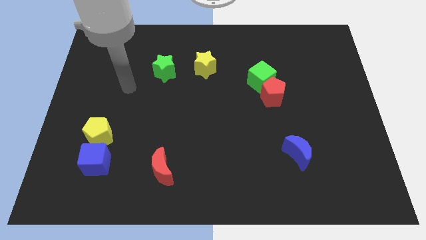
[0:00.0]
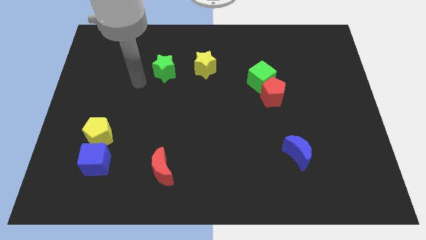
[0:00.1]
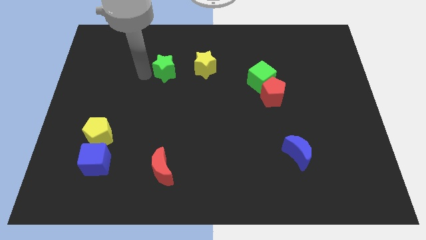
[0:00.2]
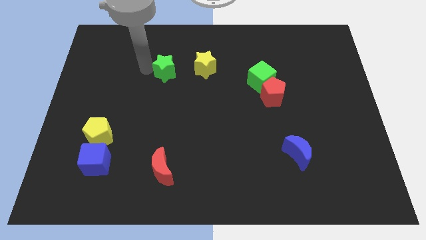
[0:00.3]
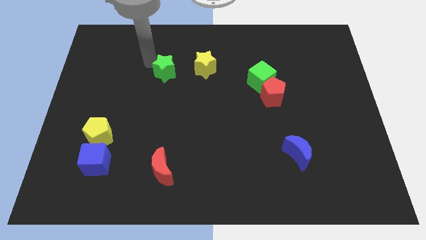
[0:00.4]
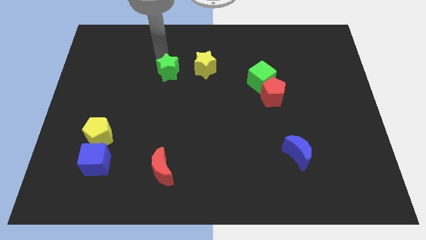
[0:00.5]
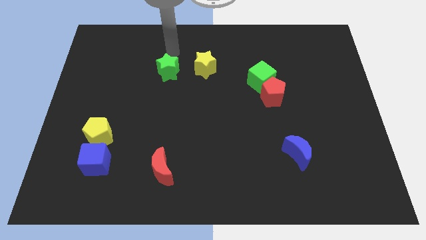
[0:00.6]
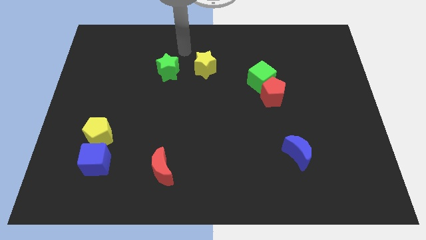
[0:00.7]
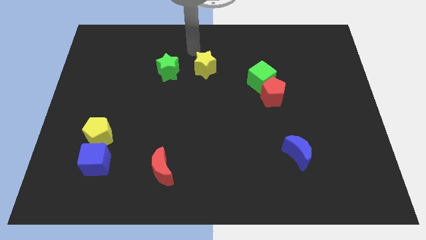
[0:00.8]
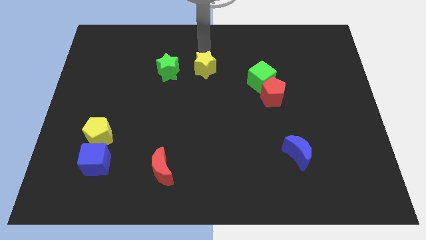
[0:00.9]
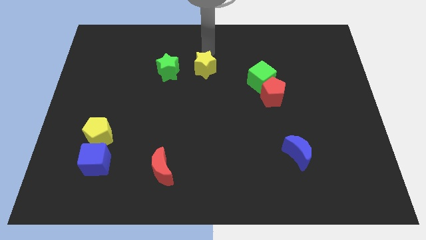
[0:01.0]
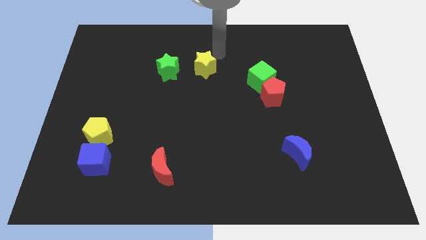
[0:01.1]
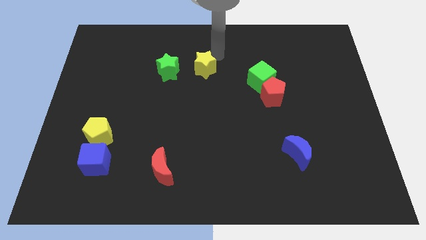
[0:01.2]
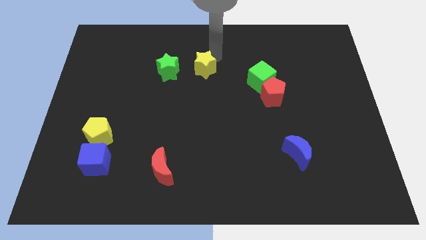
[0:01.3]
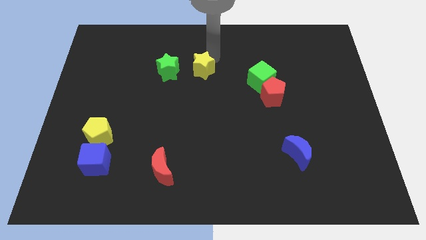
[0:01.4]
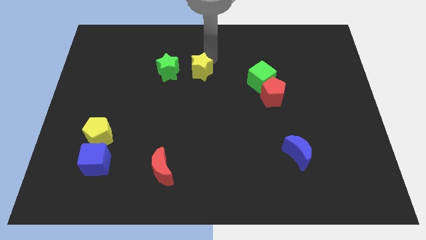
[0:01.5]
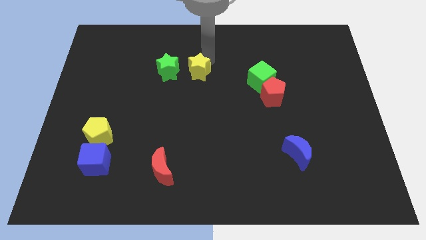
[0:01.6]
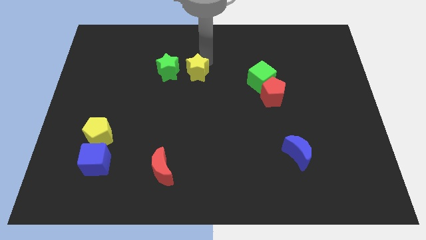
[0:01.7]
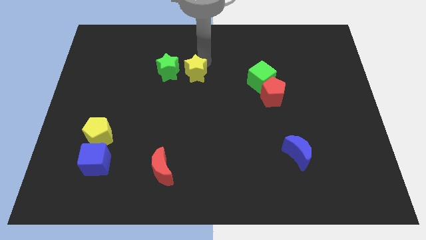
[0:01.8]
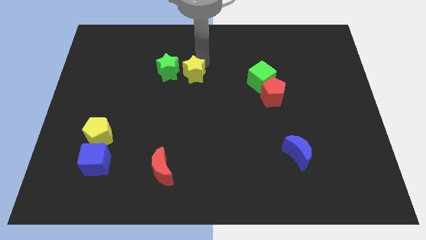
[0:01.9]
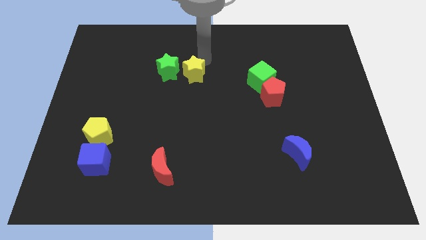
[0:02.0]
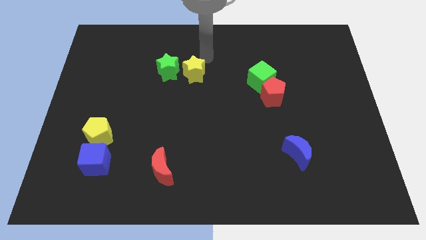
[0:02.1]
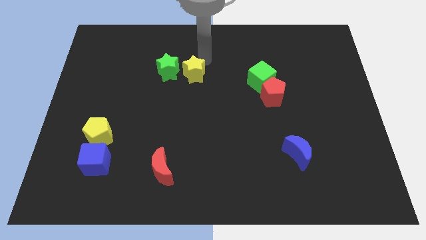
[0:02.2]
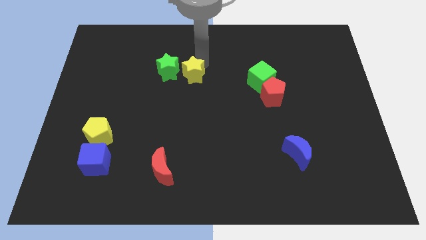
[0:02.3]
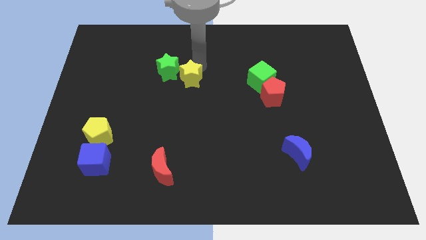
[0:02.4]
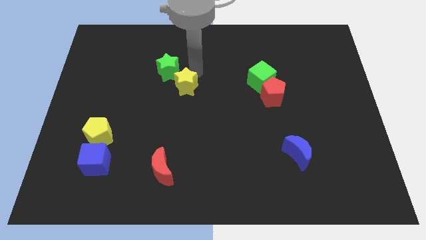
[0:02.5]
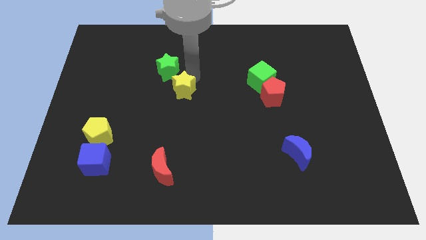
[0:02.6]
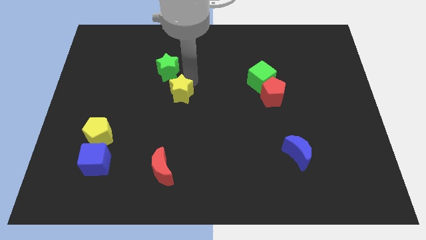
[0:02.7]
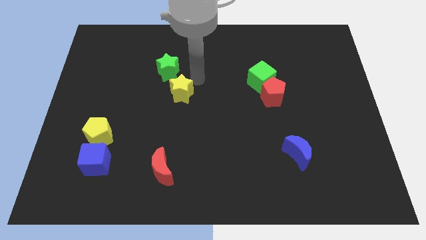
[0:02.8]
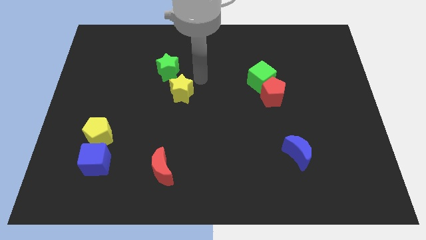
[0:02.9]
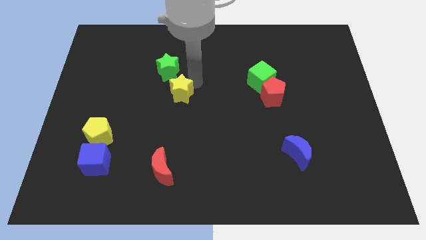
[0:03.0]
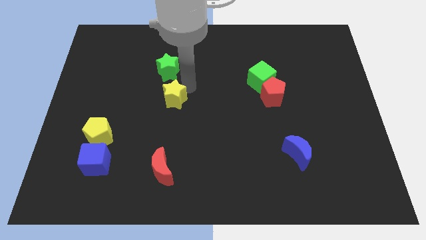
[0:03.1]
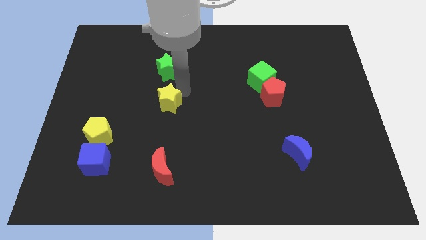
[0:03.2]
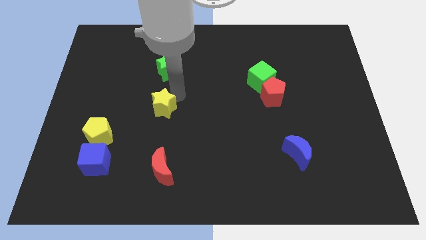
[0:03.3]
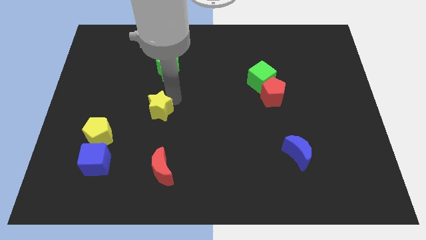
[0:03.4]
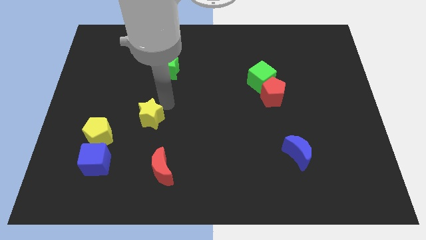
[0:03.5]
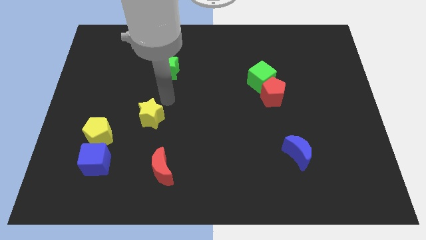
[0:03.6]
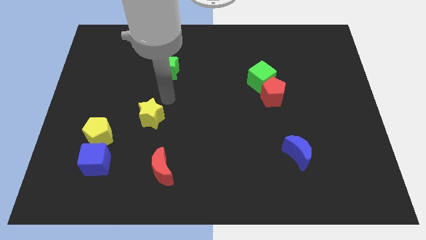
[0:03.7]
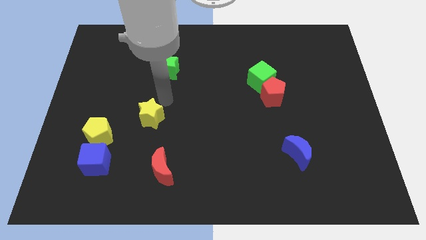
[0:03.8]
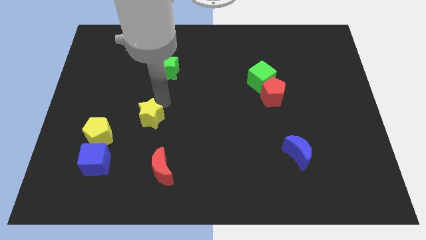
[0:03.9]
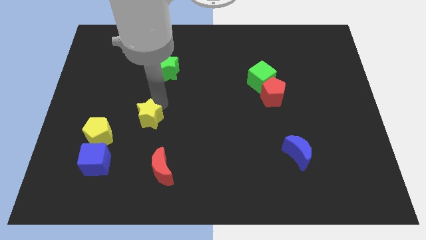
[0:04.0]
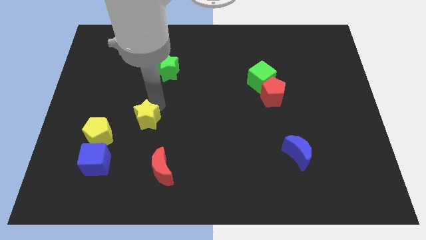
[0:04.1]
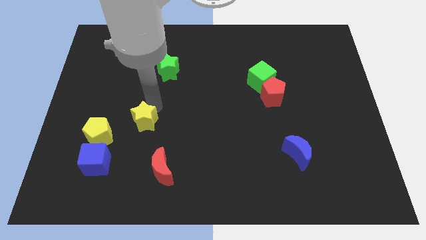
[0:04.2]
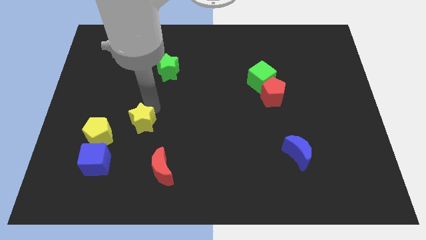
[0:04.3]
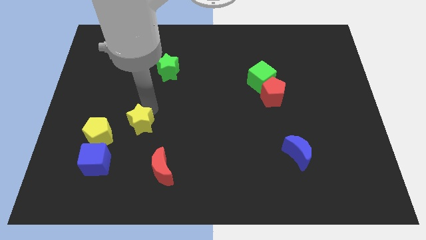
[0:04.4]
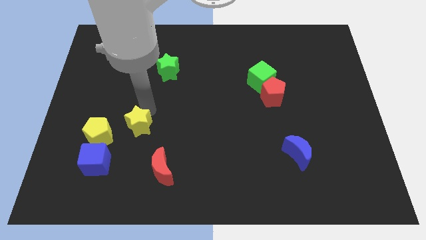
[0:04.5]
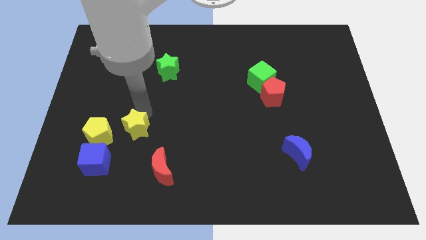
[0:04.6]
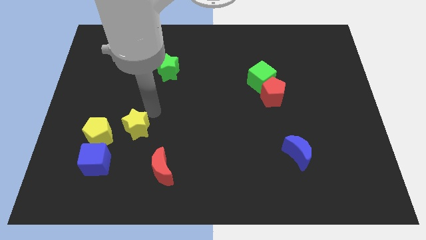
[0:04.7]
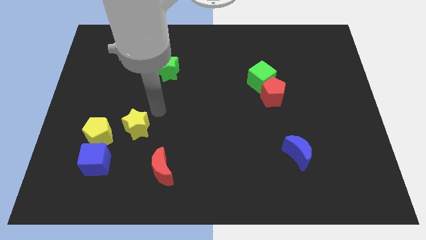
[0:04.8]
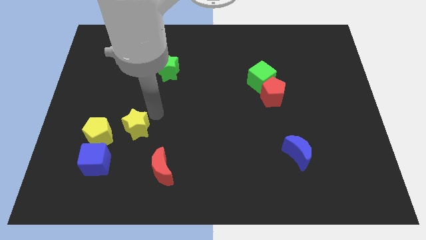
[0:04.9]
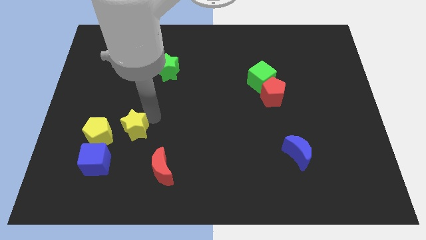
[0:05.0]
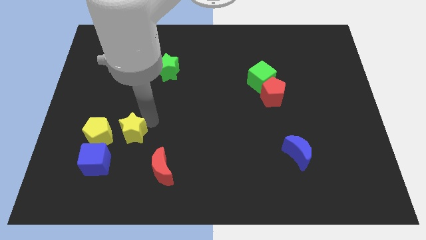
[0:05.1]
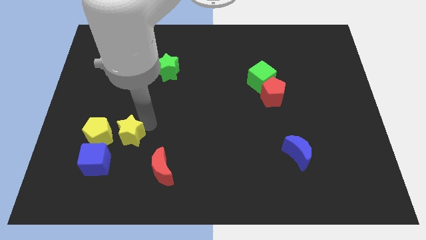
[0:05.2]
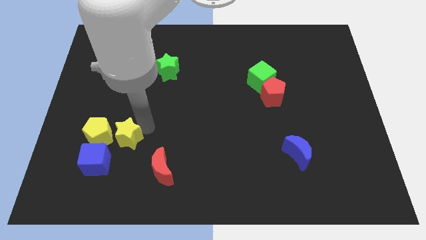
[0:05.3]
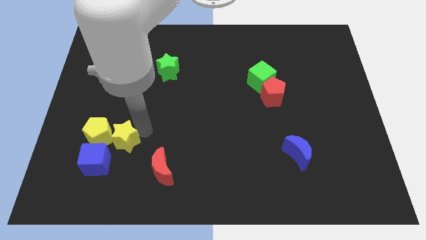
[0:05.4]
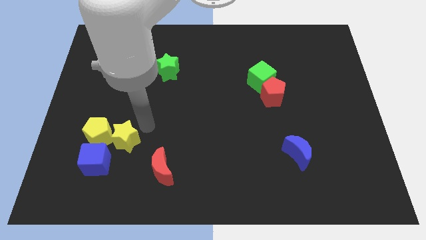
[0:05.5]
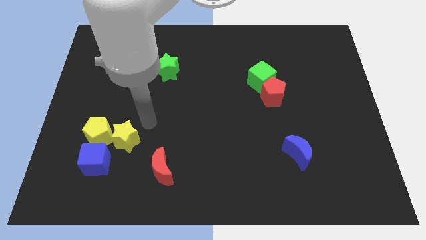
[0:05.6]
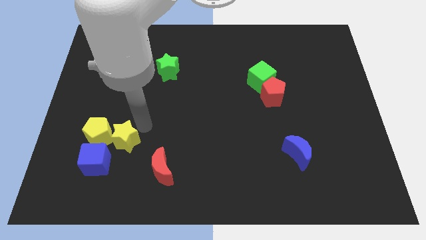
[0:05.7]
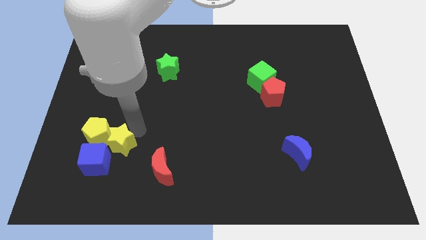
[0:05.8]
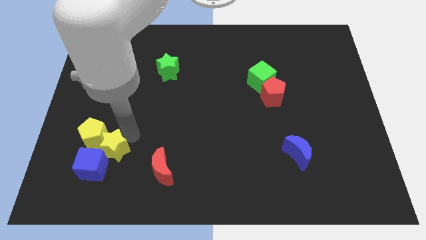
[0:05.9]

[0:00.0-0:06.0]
push the yellow star next to the blue cube

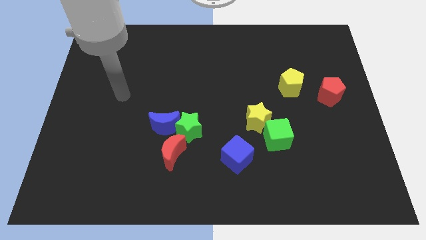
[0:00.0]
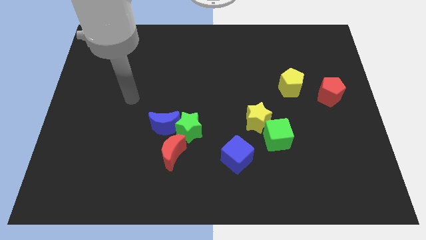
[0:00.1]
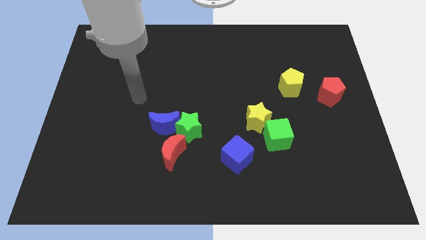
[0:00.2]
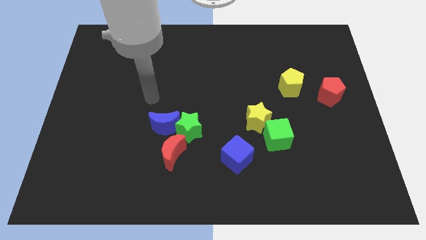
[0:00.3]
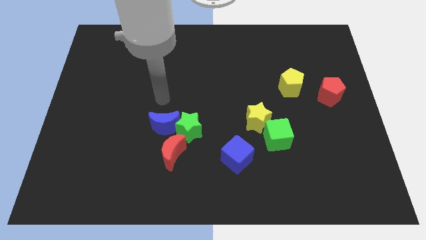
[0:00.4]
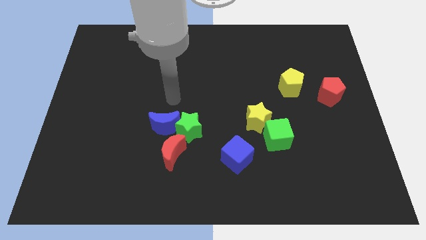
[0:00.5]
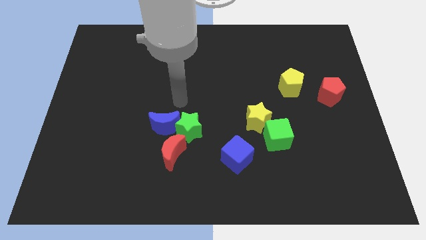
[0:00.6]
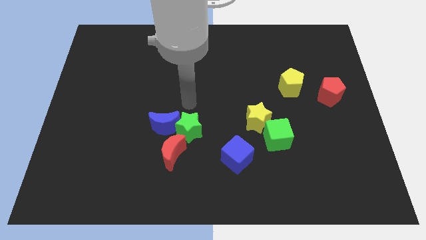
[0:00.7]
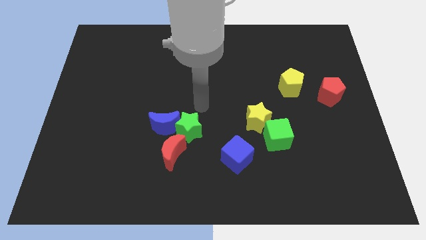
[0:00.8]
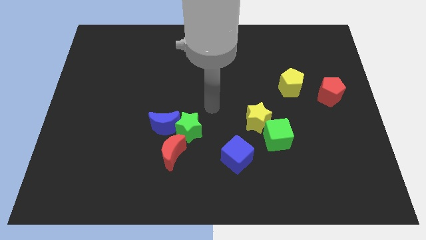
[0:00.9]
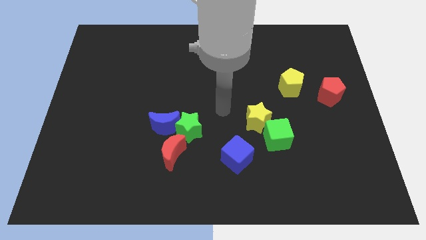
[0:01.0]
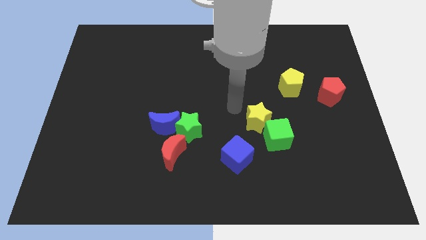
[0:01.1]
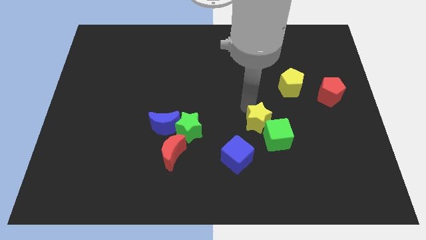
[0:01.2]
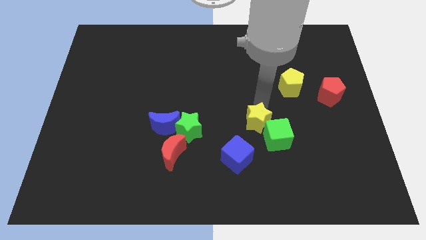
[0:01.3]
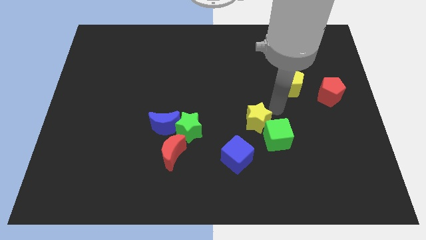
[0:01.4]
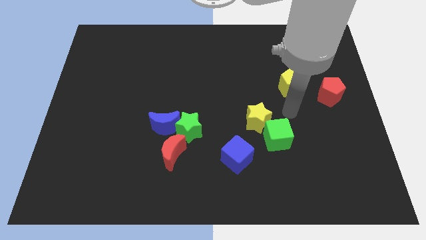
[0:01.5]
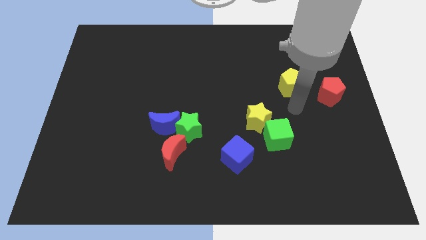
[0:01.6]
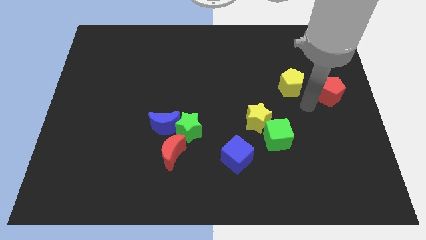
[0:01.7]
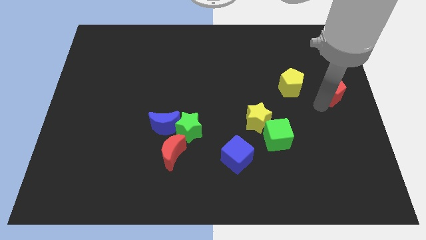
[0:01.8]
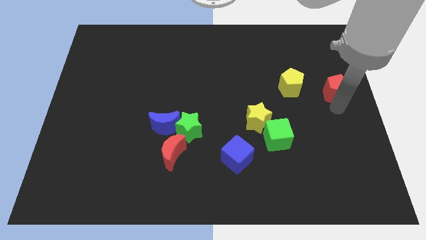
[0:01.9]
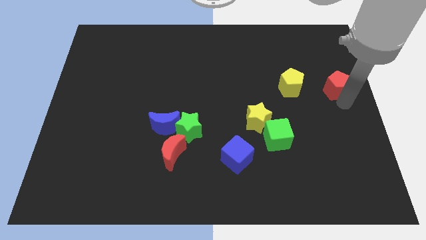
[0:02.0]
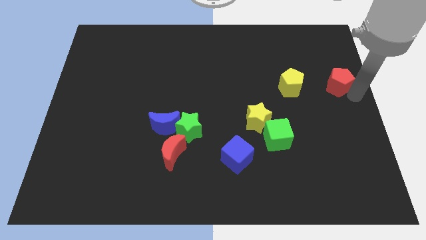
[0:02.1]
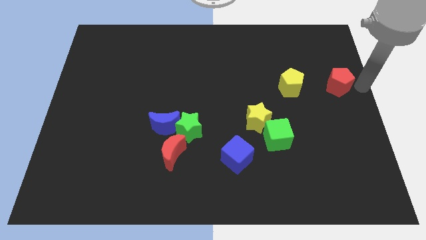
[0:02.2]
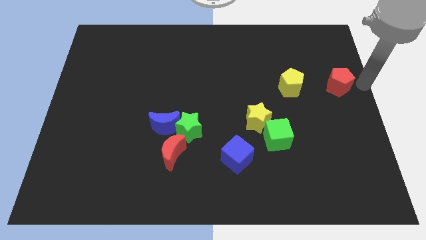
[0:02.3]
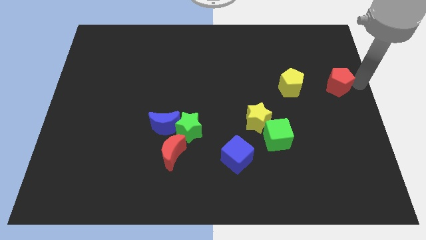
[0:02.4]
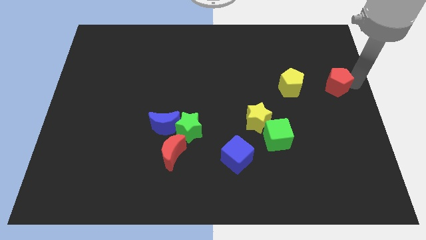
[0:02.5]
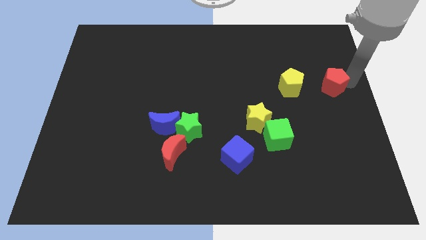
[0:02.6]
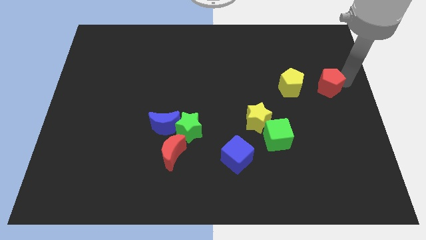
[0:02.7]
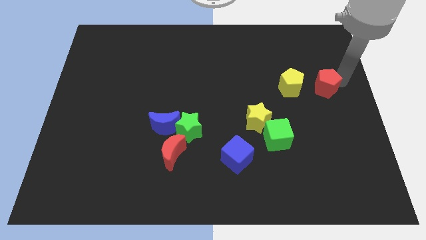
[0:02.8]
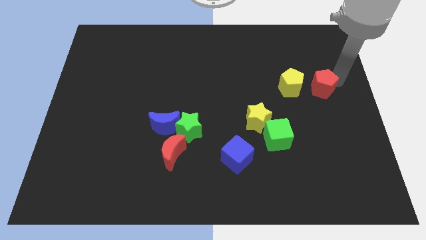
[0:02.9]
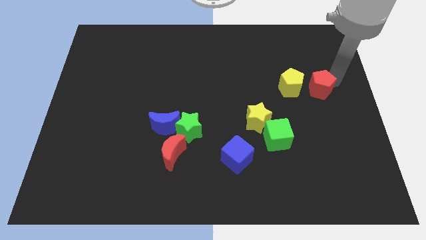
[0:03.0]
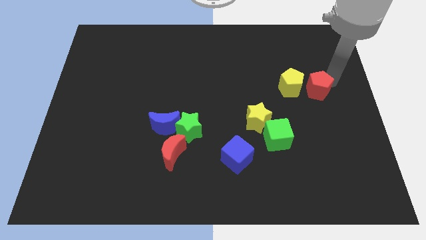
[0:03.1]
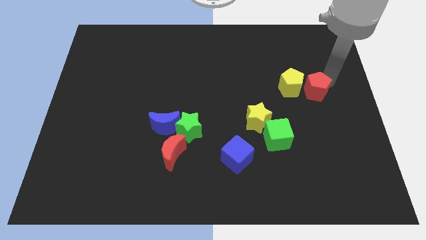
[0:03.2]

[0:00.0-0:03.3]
move the red pentagon to the yellow pentagon
